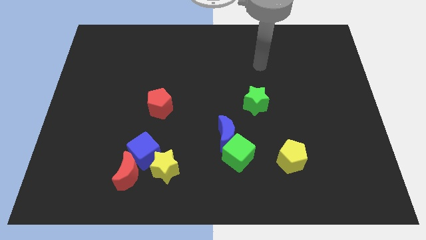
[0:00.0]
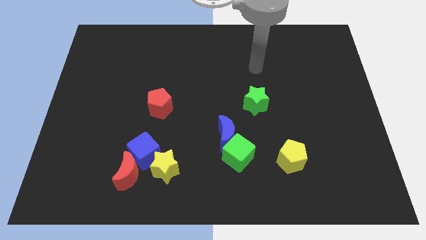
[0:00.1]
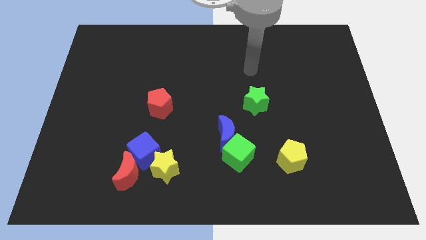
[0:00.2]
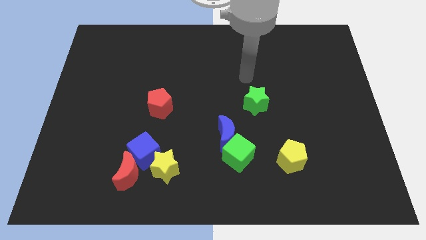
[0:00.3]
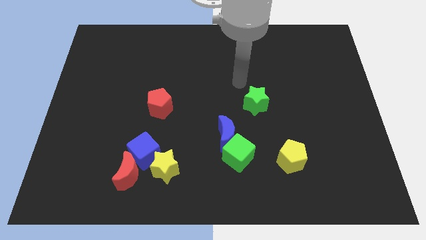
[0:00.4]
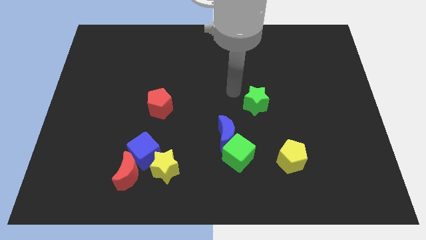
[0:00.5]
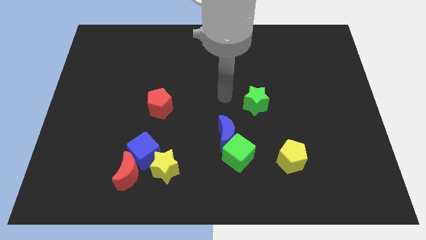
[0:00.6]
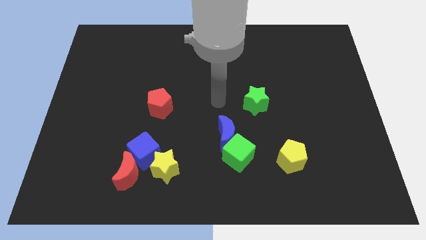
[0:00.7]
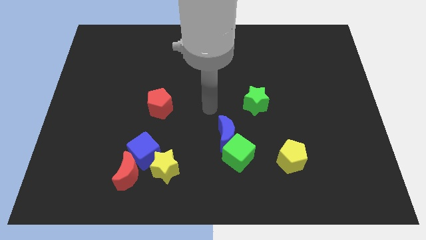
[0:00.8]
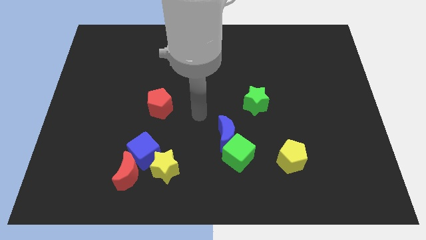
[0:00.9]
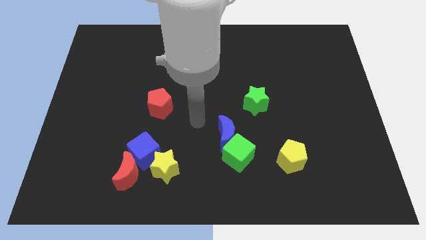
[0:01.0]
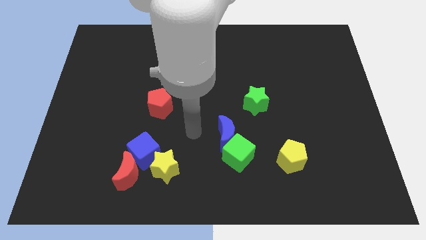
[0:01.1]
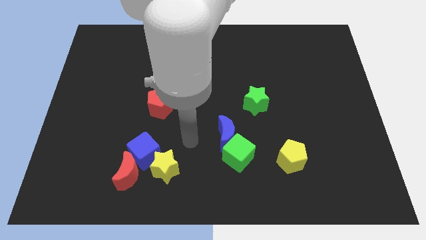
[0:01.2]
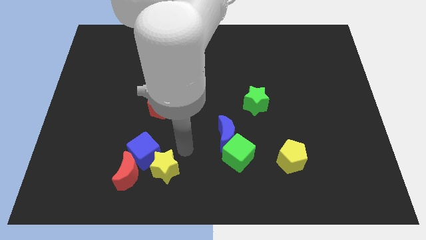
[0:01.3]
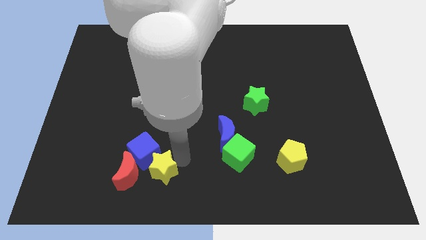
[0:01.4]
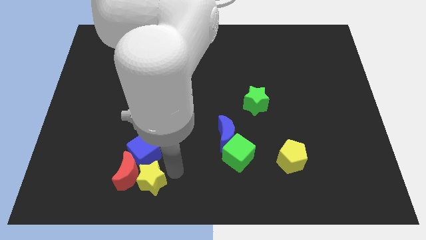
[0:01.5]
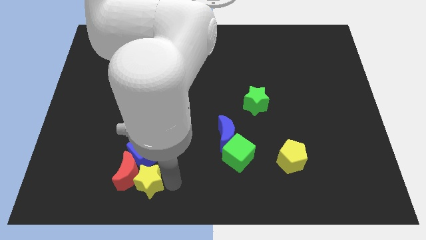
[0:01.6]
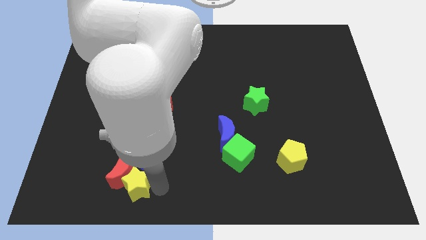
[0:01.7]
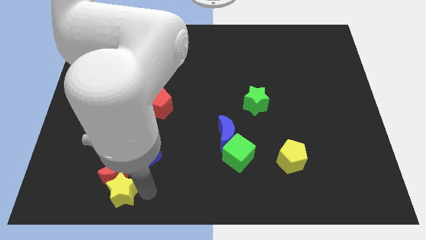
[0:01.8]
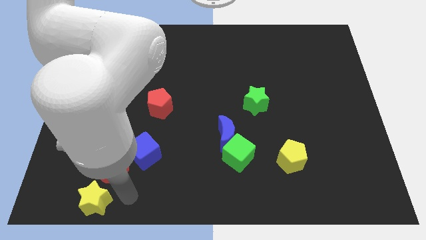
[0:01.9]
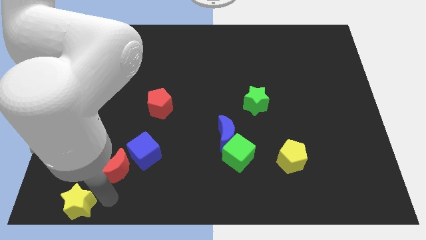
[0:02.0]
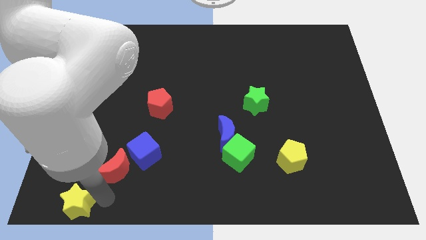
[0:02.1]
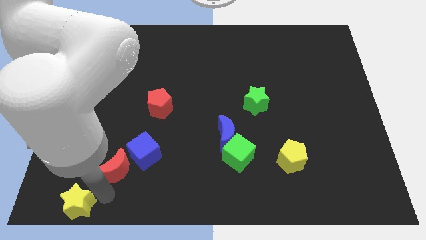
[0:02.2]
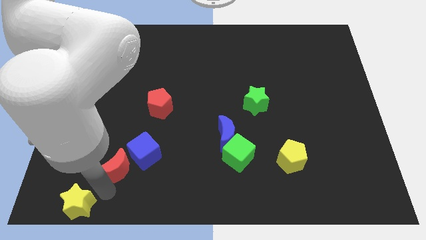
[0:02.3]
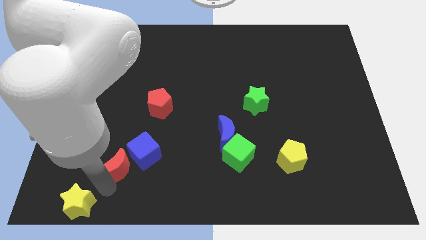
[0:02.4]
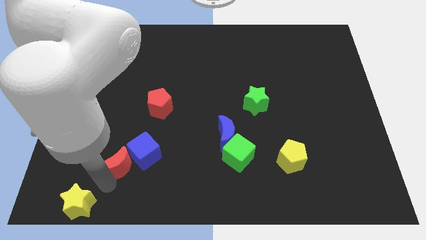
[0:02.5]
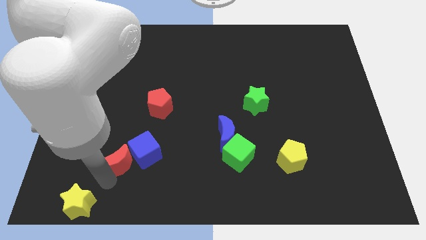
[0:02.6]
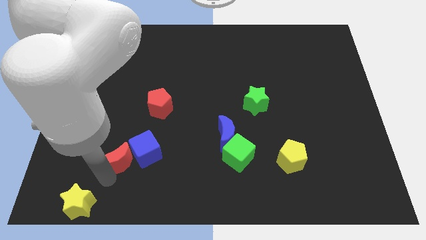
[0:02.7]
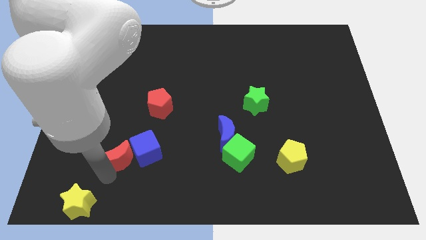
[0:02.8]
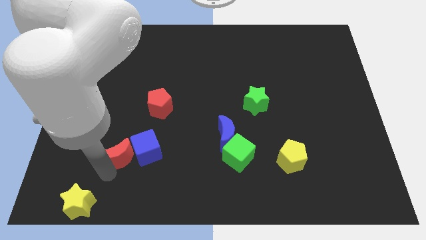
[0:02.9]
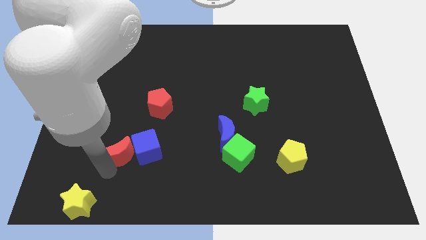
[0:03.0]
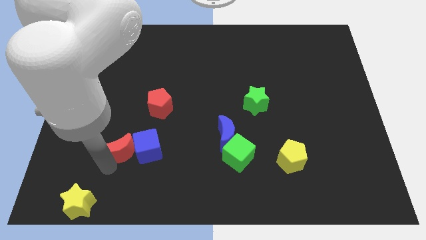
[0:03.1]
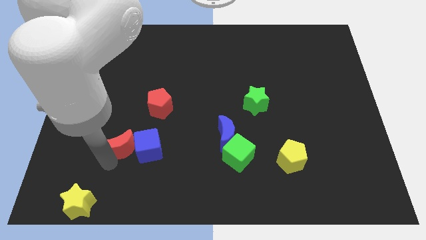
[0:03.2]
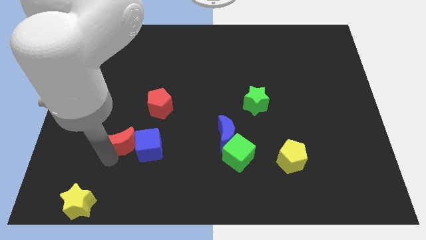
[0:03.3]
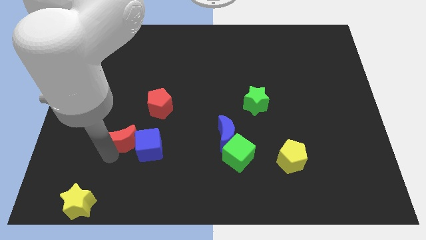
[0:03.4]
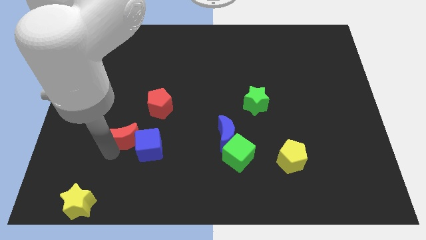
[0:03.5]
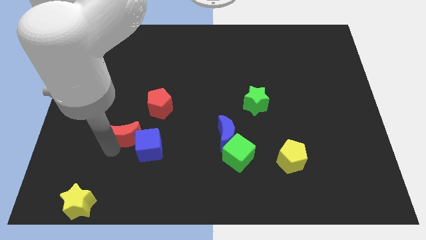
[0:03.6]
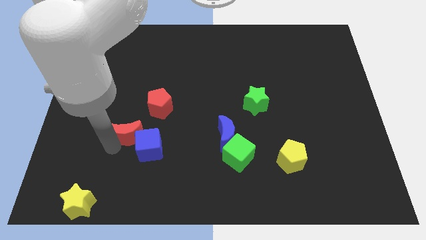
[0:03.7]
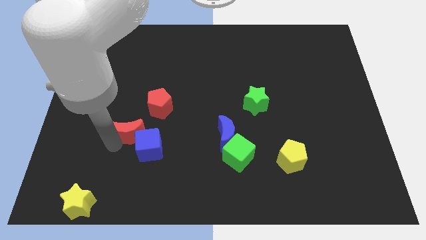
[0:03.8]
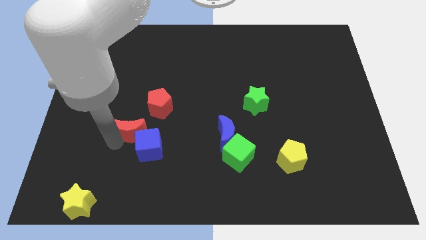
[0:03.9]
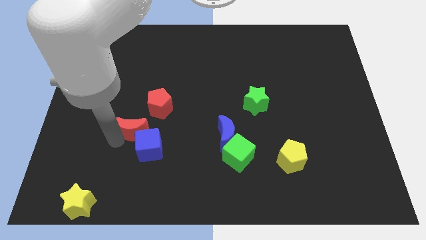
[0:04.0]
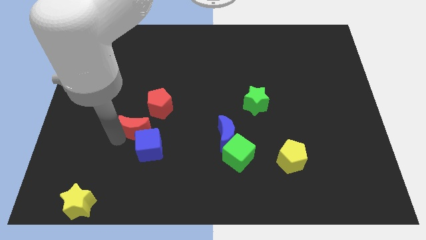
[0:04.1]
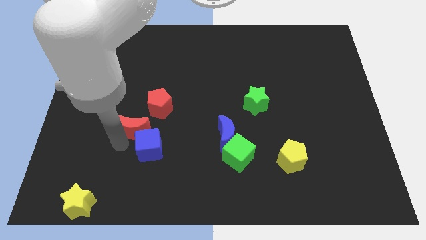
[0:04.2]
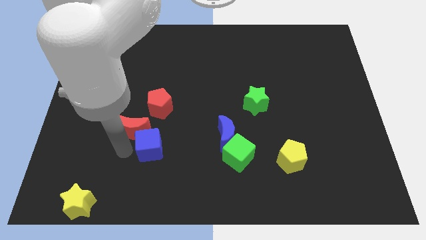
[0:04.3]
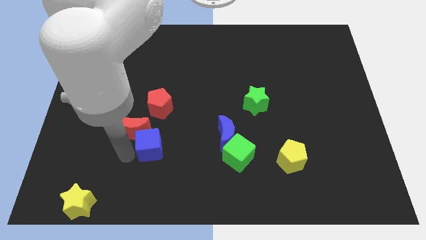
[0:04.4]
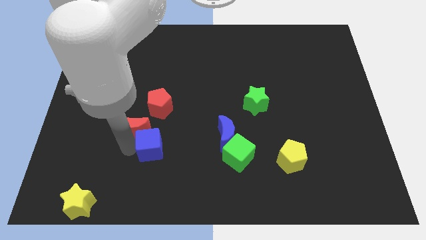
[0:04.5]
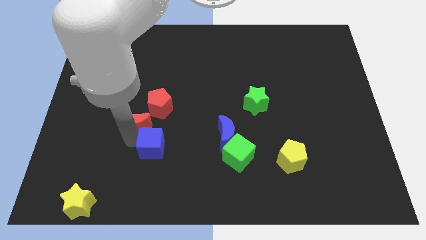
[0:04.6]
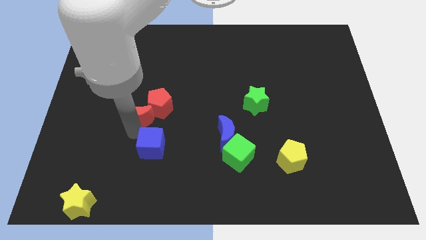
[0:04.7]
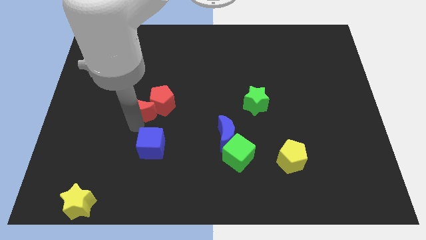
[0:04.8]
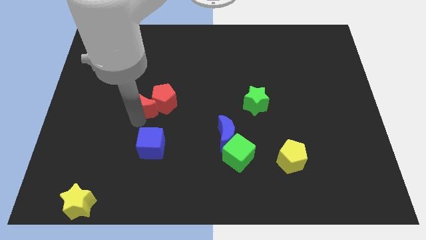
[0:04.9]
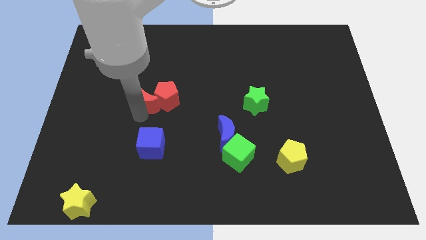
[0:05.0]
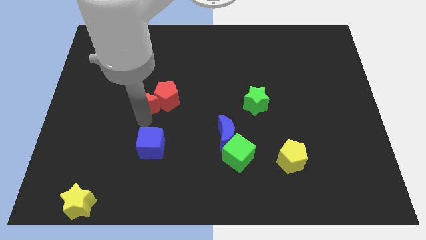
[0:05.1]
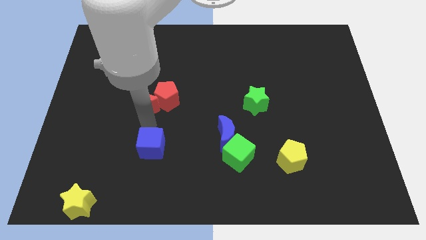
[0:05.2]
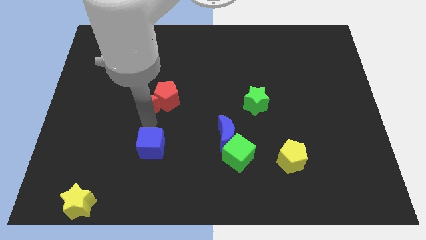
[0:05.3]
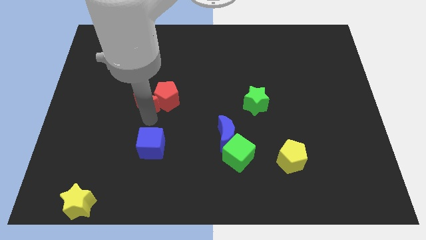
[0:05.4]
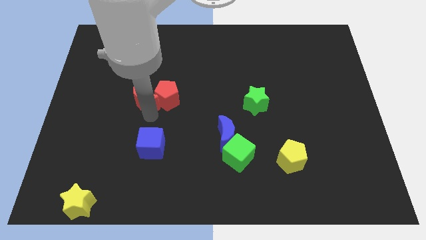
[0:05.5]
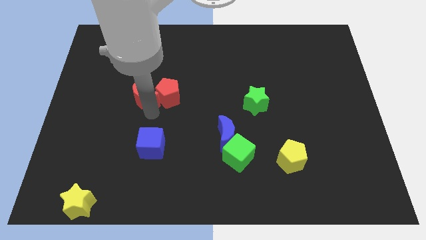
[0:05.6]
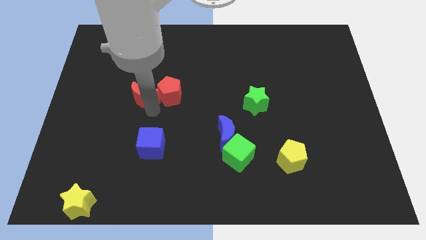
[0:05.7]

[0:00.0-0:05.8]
push the red moon up

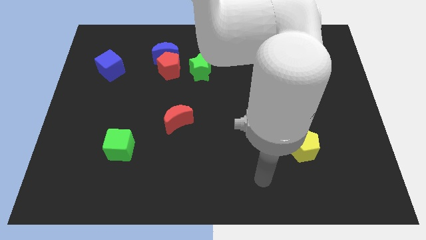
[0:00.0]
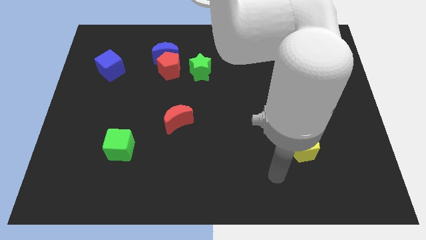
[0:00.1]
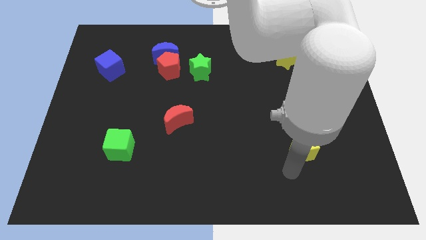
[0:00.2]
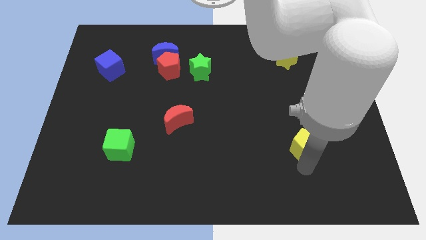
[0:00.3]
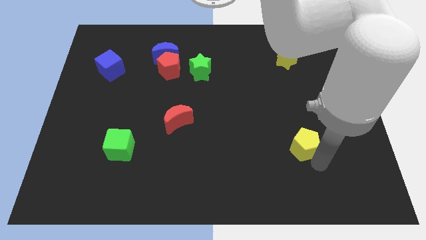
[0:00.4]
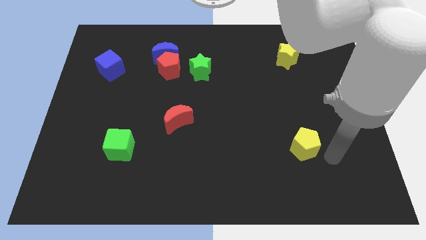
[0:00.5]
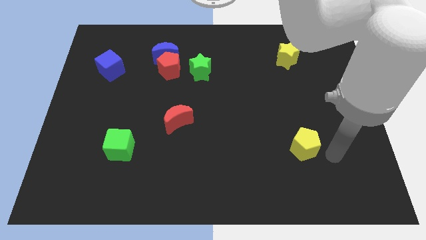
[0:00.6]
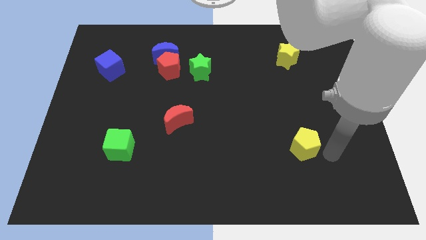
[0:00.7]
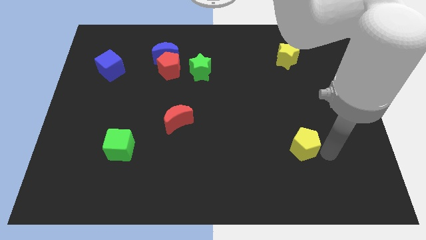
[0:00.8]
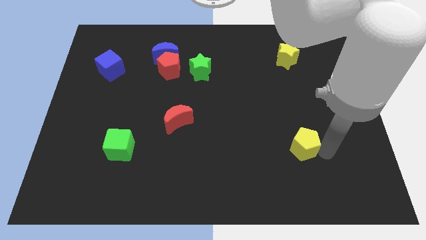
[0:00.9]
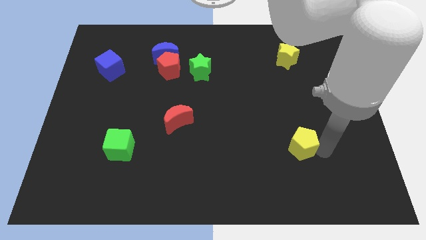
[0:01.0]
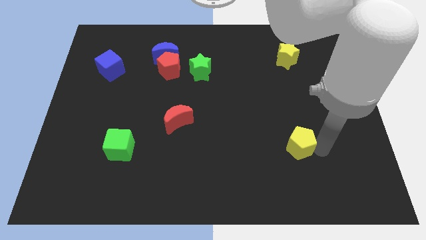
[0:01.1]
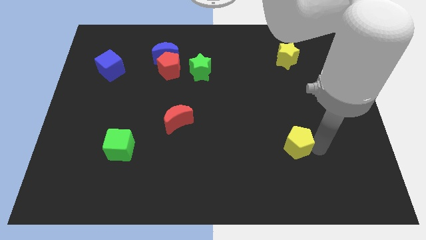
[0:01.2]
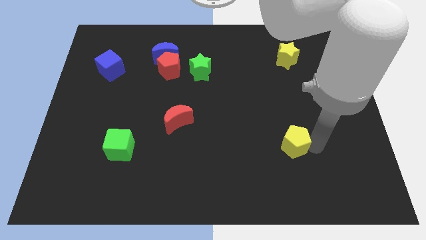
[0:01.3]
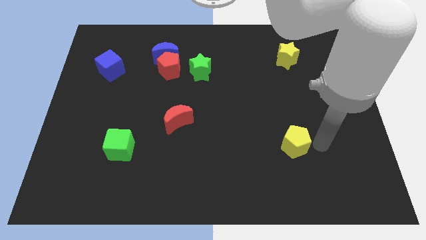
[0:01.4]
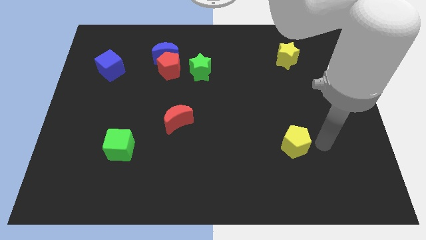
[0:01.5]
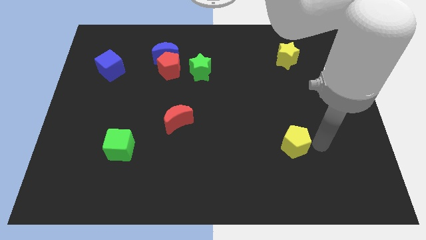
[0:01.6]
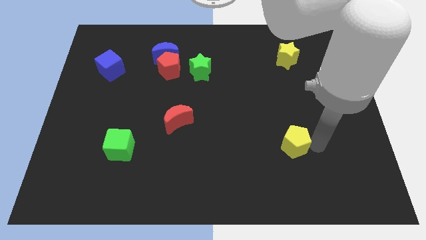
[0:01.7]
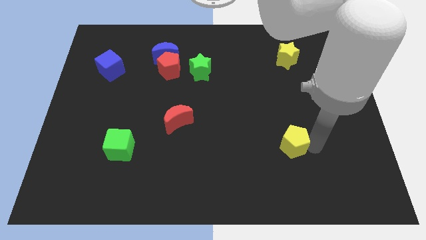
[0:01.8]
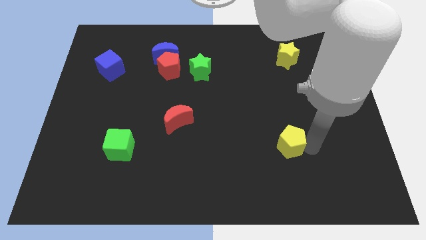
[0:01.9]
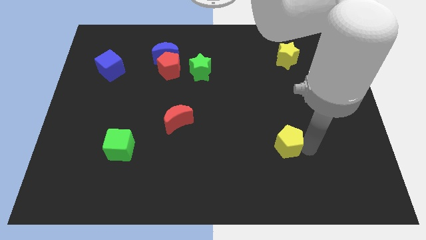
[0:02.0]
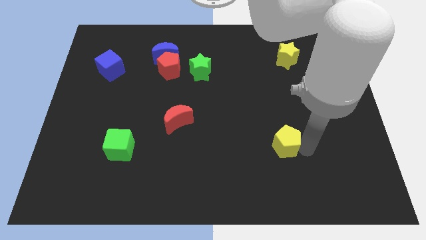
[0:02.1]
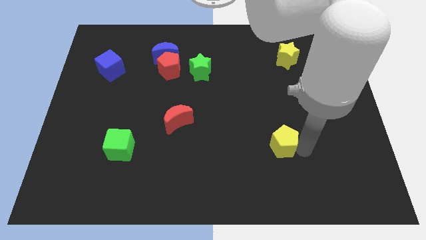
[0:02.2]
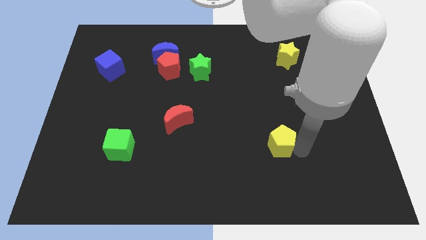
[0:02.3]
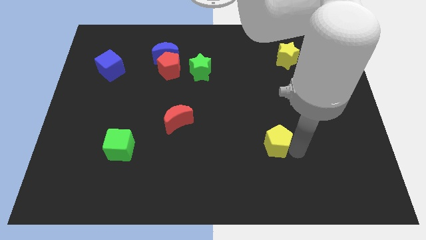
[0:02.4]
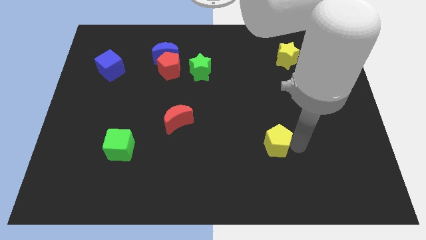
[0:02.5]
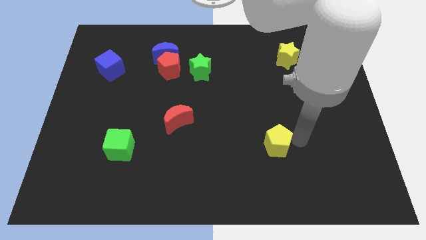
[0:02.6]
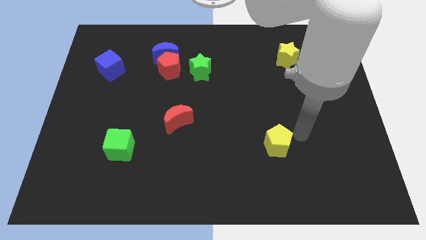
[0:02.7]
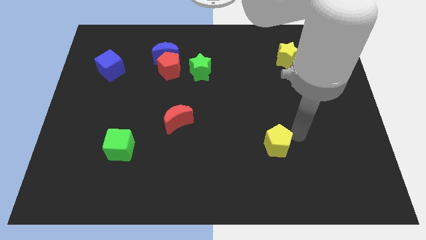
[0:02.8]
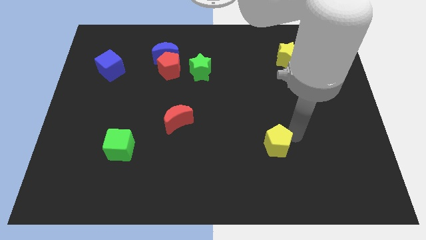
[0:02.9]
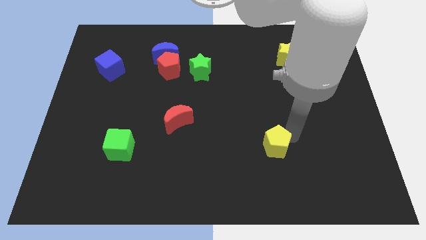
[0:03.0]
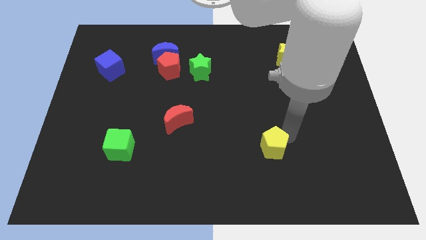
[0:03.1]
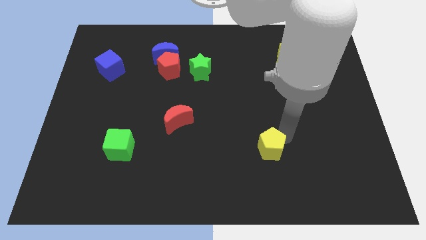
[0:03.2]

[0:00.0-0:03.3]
push the yellow pentagon to the left somewhat
